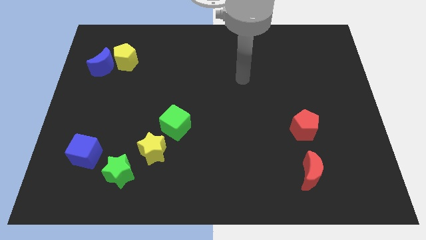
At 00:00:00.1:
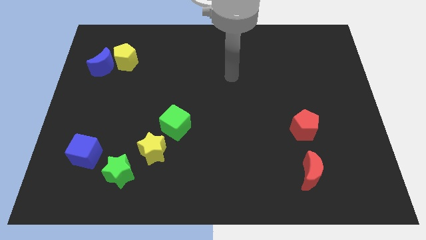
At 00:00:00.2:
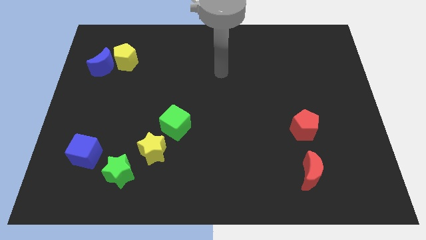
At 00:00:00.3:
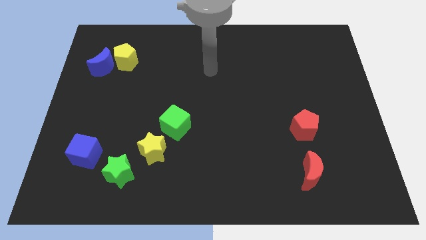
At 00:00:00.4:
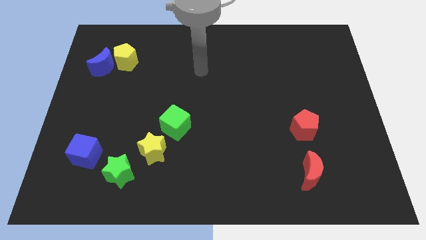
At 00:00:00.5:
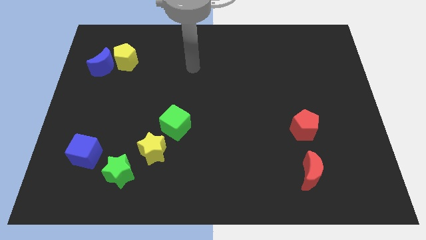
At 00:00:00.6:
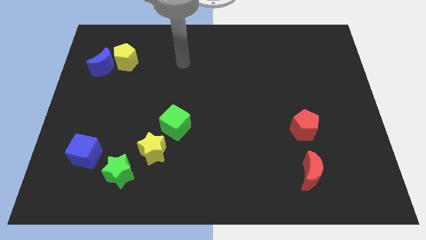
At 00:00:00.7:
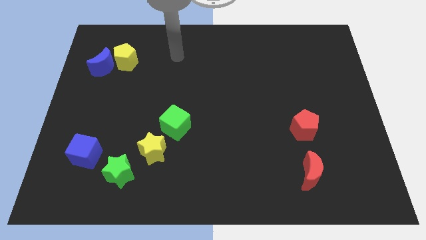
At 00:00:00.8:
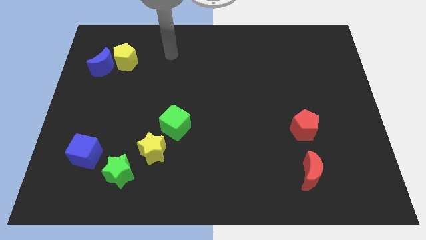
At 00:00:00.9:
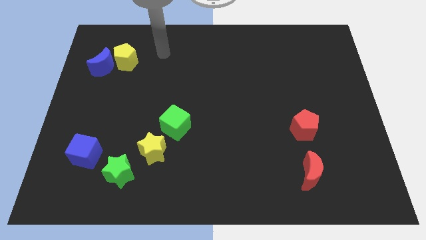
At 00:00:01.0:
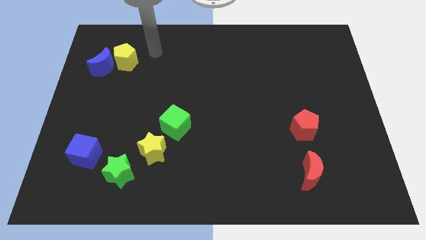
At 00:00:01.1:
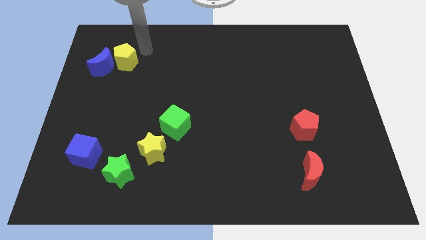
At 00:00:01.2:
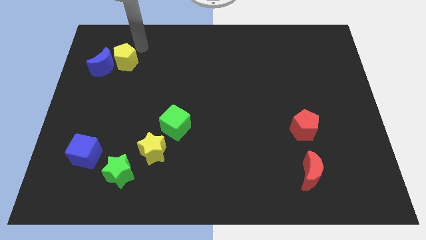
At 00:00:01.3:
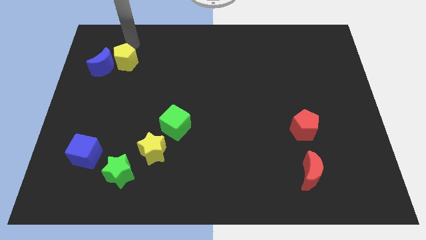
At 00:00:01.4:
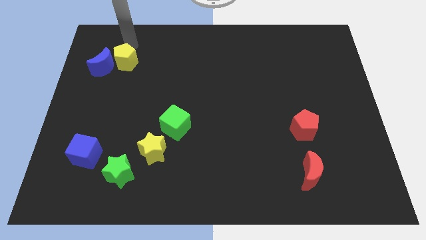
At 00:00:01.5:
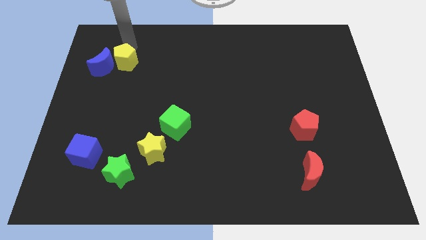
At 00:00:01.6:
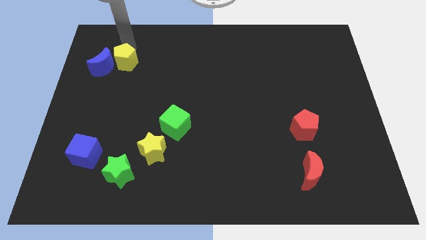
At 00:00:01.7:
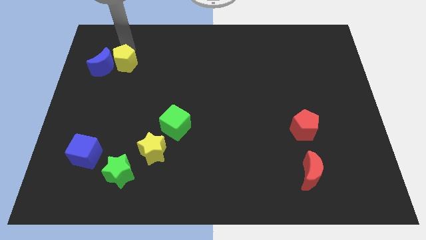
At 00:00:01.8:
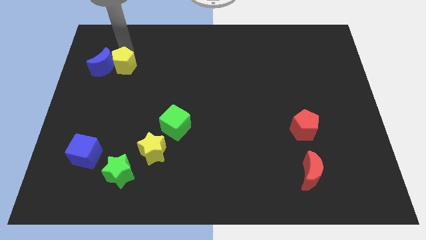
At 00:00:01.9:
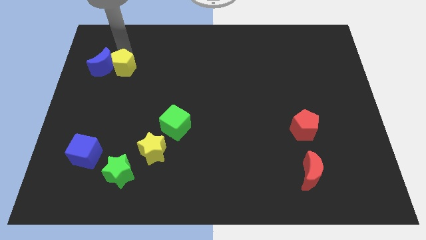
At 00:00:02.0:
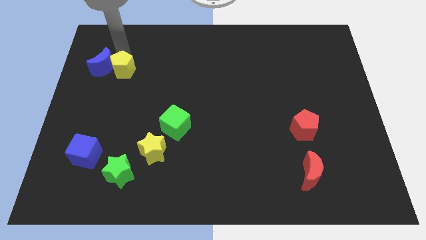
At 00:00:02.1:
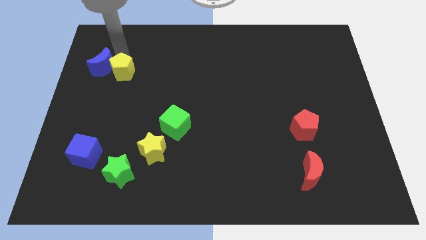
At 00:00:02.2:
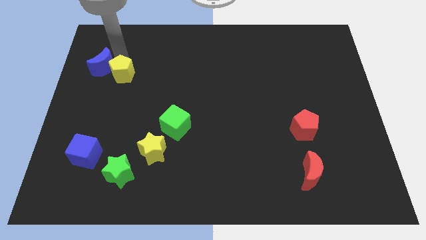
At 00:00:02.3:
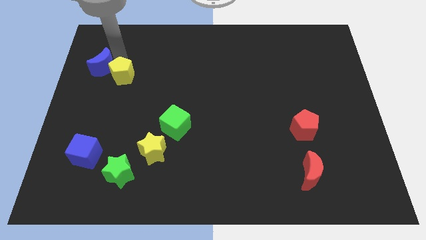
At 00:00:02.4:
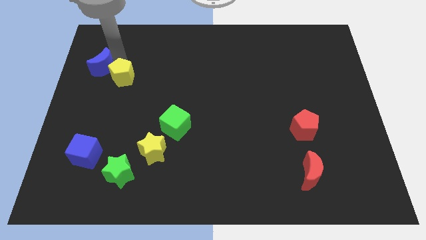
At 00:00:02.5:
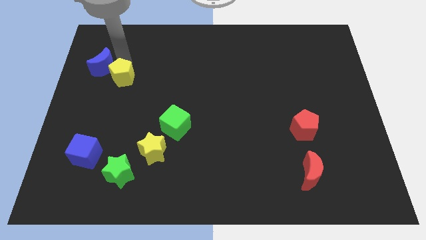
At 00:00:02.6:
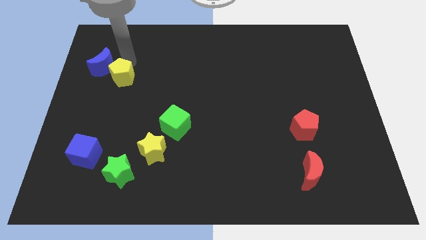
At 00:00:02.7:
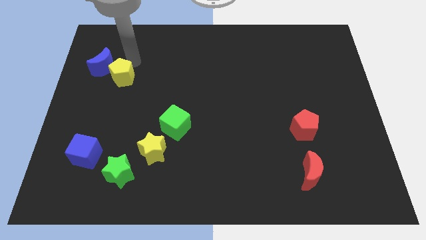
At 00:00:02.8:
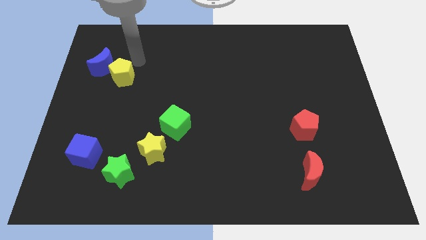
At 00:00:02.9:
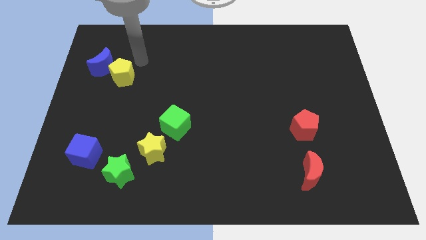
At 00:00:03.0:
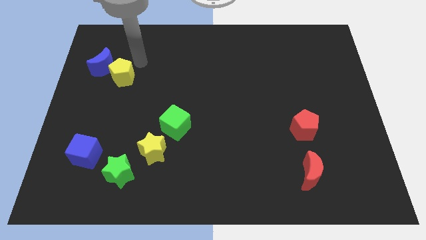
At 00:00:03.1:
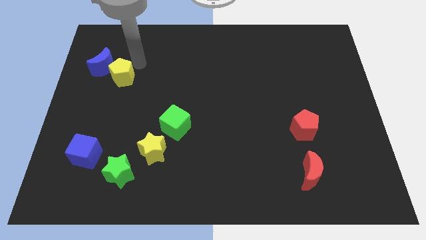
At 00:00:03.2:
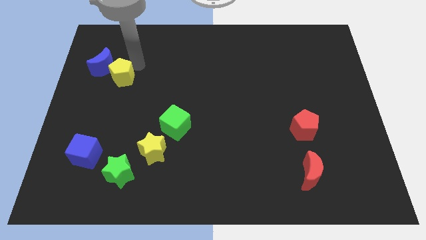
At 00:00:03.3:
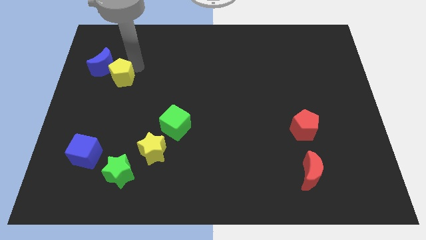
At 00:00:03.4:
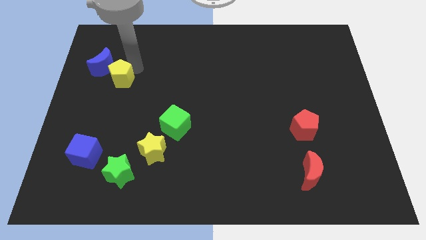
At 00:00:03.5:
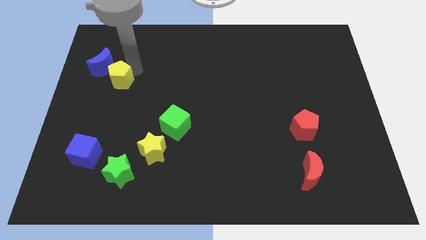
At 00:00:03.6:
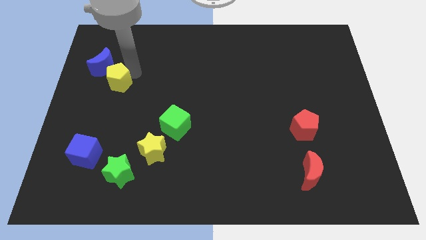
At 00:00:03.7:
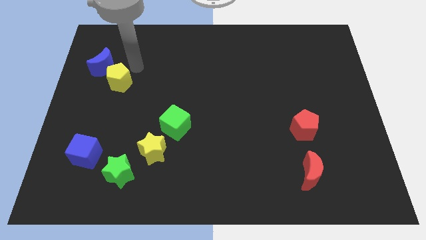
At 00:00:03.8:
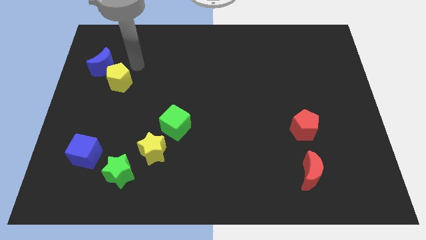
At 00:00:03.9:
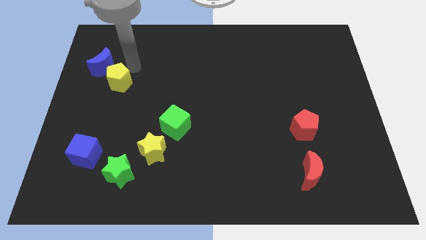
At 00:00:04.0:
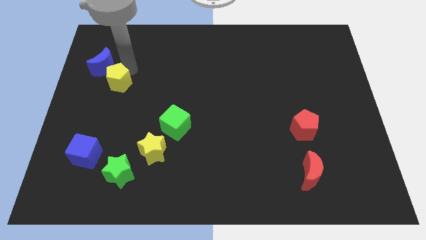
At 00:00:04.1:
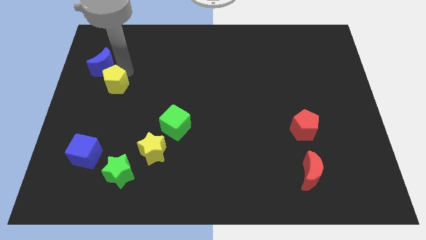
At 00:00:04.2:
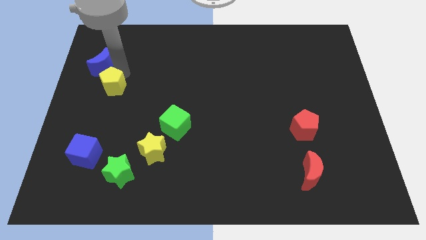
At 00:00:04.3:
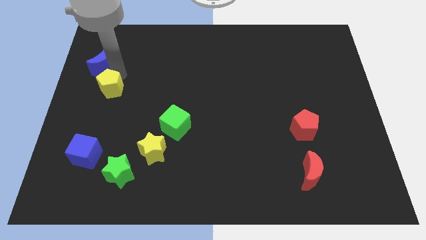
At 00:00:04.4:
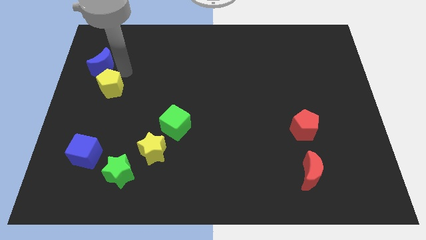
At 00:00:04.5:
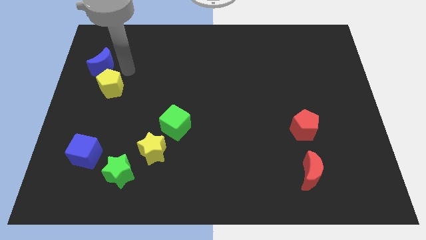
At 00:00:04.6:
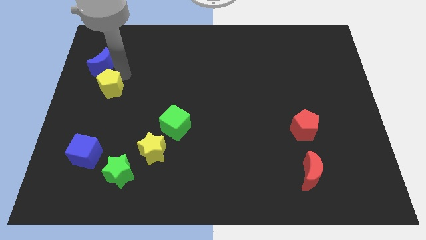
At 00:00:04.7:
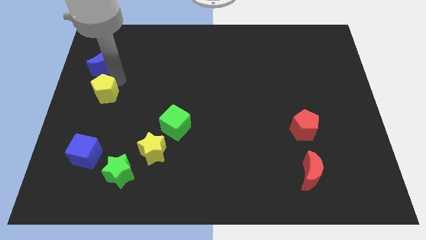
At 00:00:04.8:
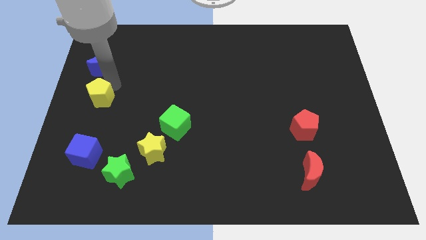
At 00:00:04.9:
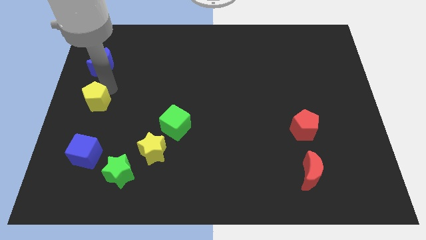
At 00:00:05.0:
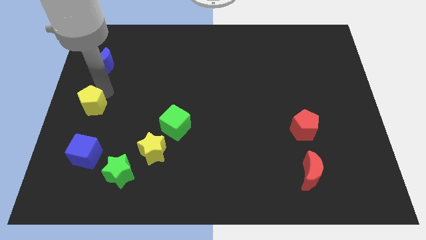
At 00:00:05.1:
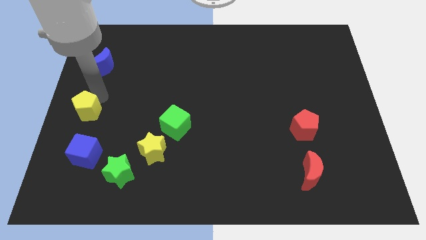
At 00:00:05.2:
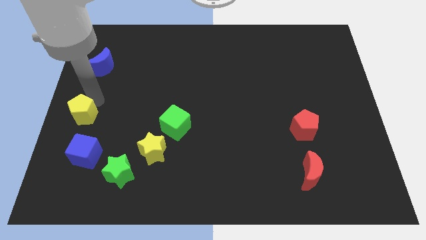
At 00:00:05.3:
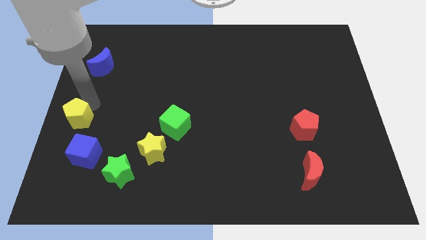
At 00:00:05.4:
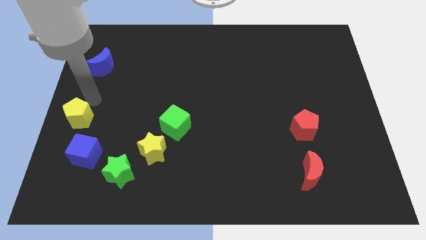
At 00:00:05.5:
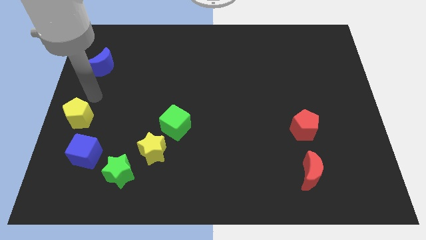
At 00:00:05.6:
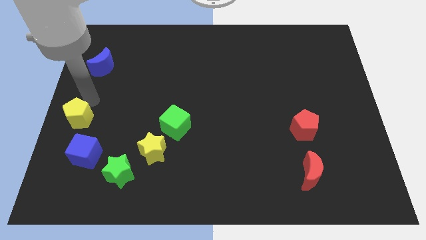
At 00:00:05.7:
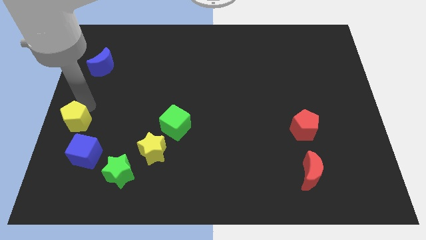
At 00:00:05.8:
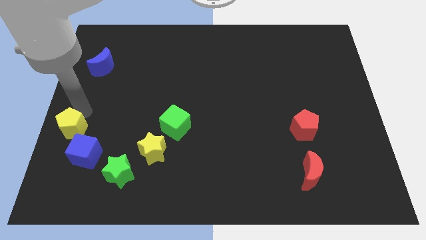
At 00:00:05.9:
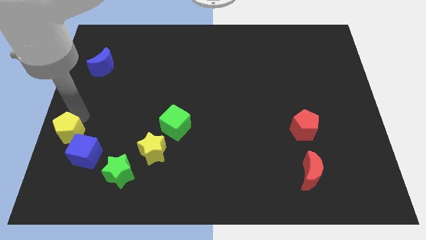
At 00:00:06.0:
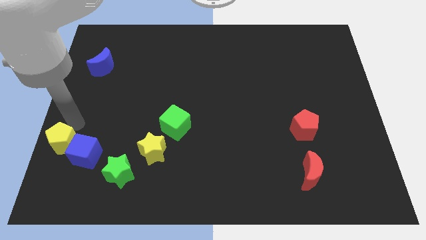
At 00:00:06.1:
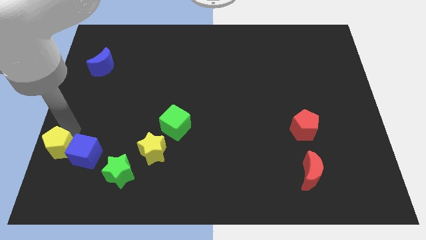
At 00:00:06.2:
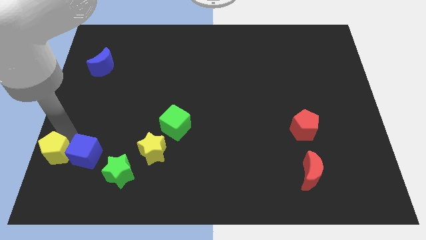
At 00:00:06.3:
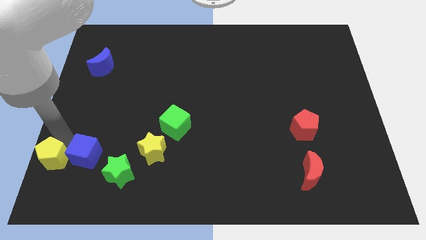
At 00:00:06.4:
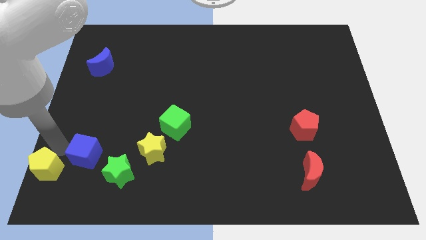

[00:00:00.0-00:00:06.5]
slide the yellow pentagon to the lower left corner
